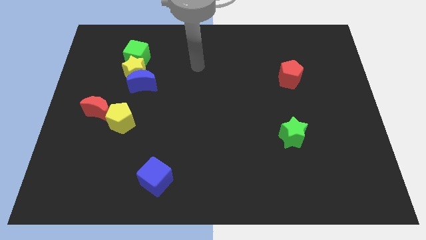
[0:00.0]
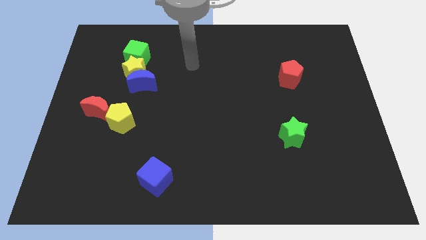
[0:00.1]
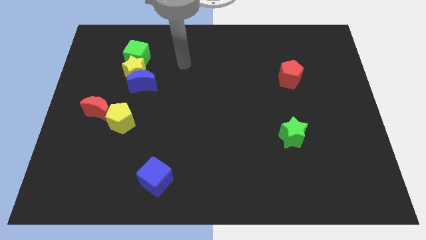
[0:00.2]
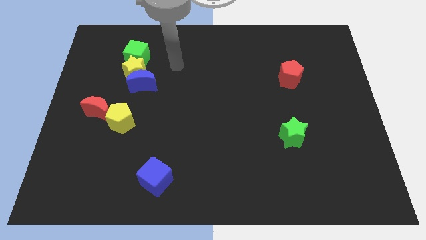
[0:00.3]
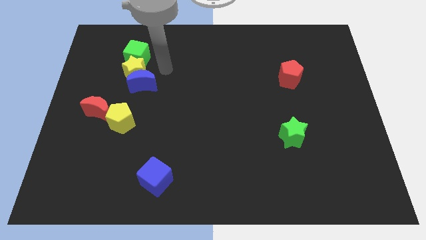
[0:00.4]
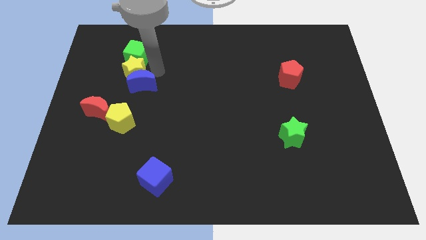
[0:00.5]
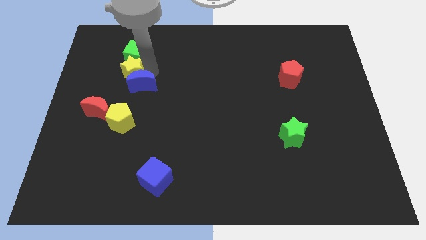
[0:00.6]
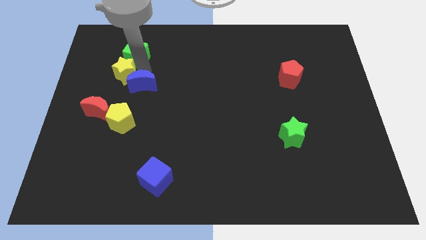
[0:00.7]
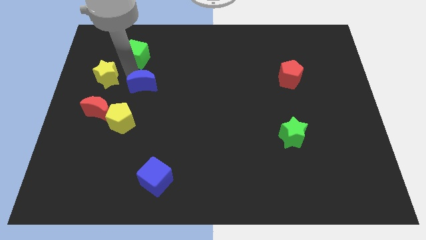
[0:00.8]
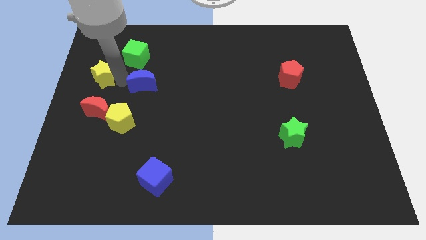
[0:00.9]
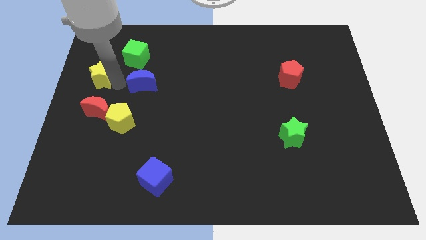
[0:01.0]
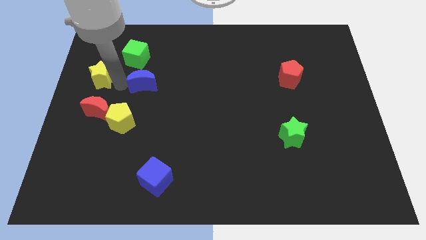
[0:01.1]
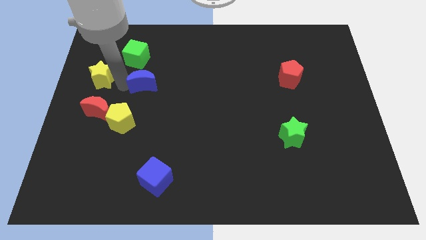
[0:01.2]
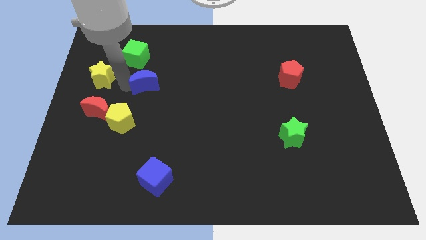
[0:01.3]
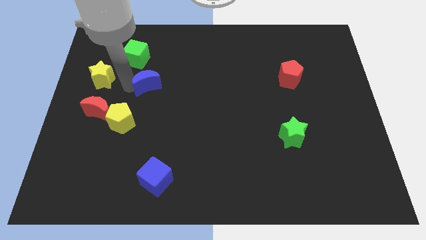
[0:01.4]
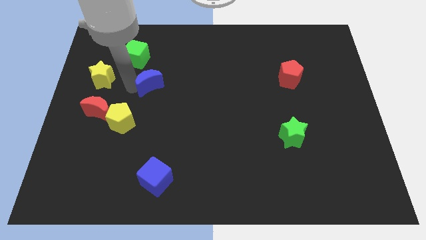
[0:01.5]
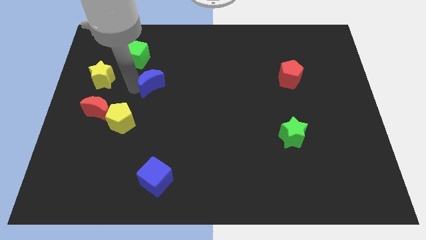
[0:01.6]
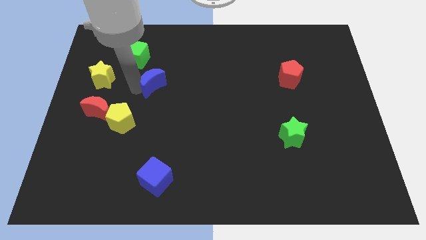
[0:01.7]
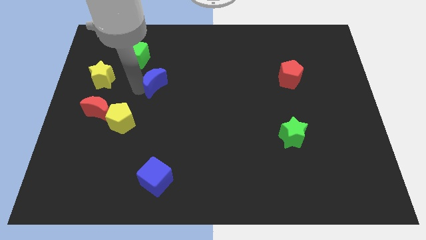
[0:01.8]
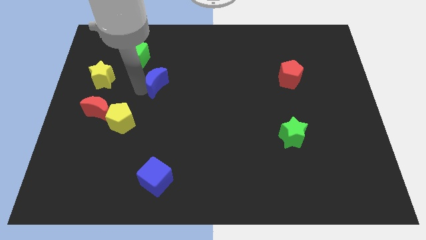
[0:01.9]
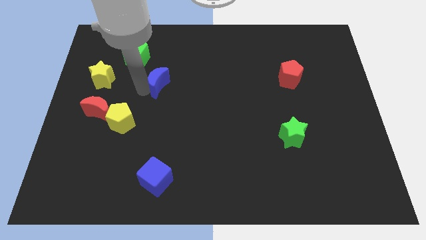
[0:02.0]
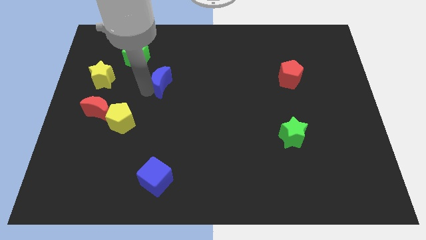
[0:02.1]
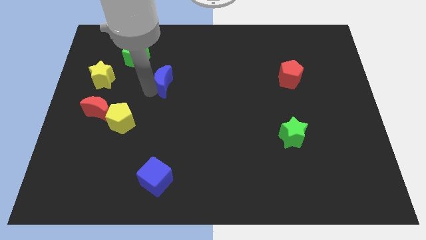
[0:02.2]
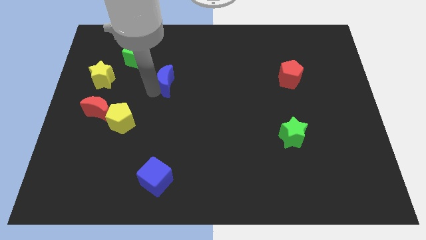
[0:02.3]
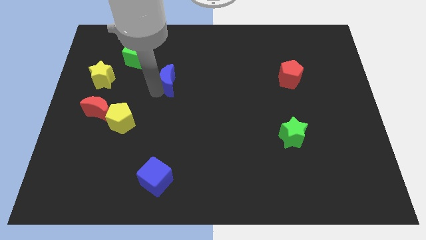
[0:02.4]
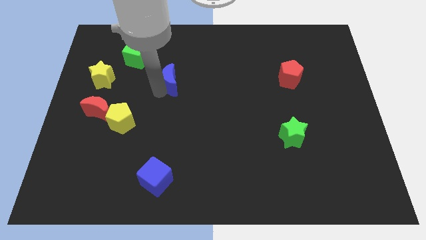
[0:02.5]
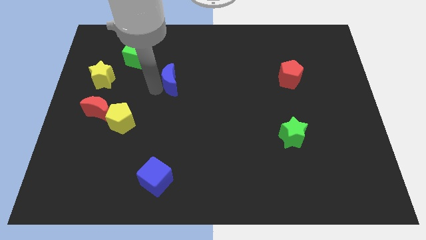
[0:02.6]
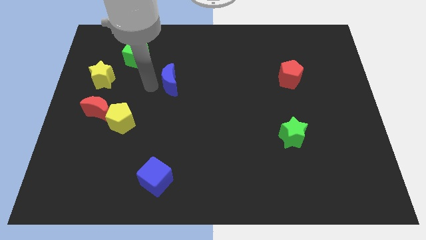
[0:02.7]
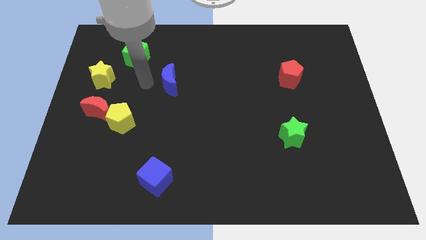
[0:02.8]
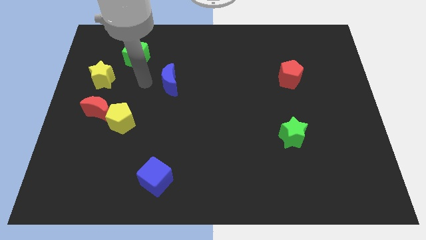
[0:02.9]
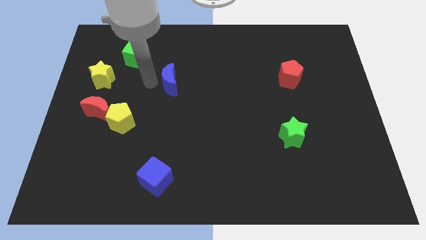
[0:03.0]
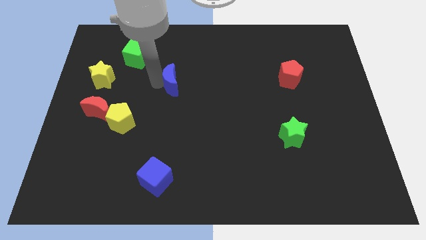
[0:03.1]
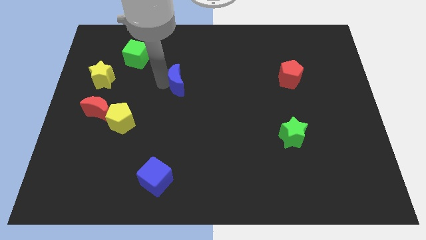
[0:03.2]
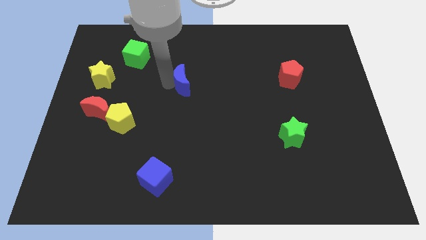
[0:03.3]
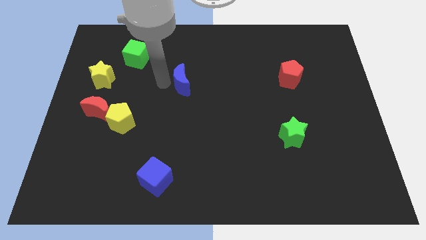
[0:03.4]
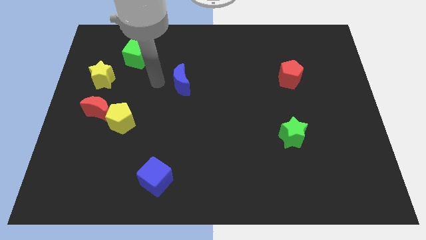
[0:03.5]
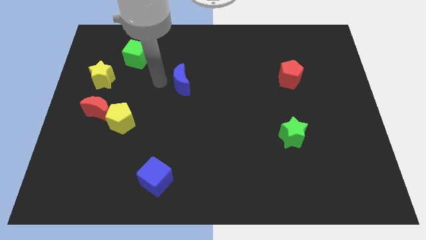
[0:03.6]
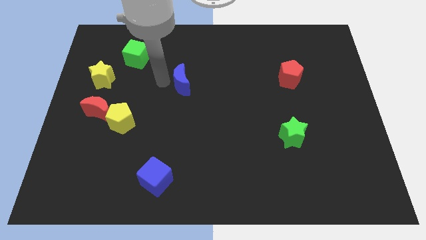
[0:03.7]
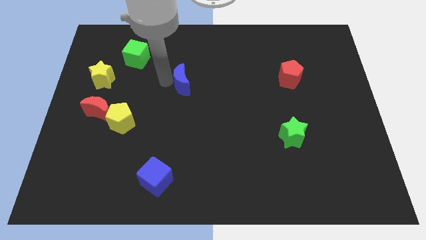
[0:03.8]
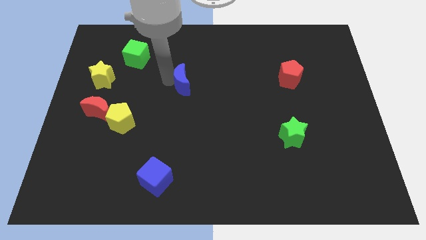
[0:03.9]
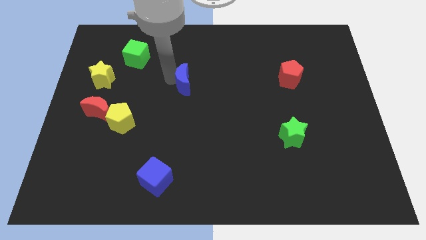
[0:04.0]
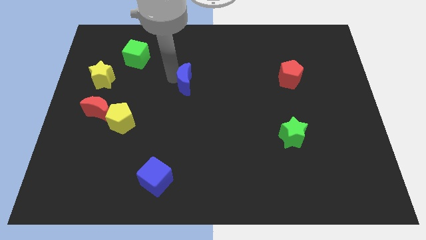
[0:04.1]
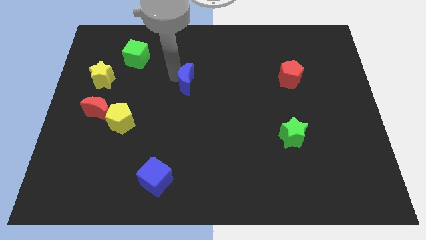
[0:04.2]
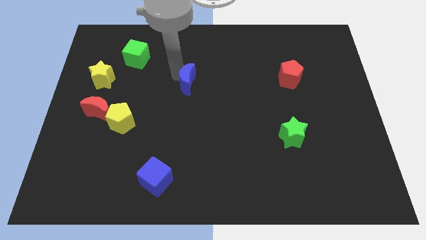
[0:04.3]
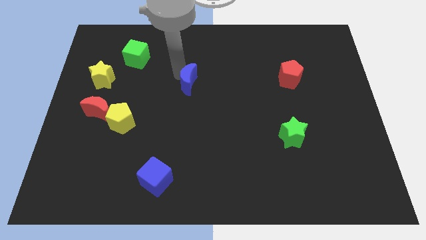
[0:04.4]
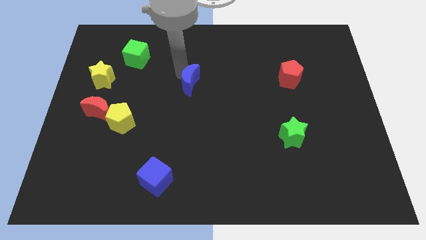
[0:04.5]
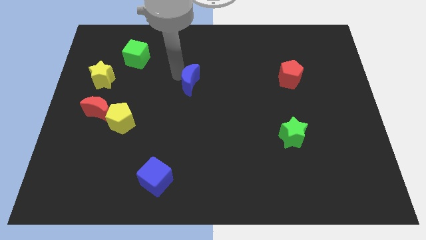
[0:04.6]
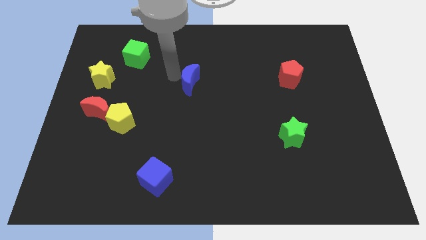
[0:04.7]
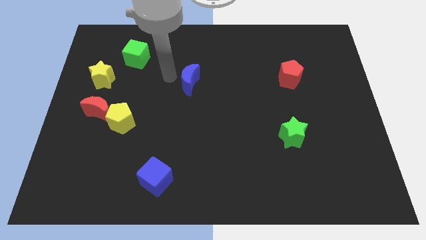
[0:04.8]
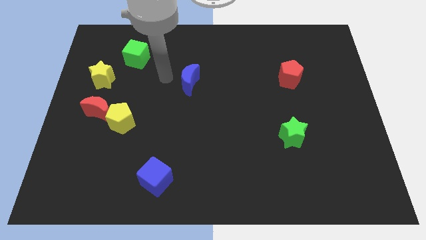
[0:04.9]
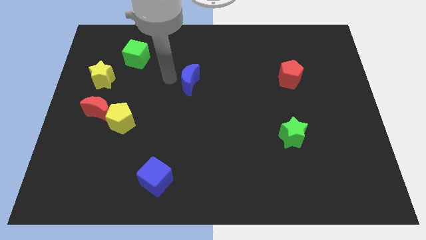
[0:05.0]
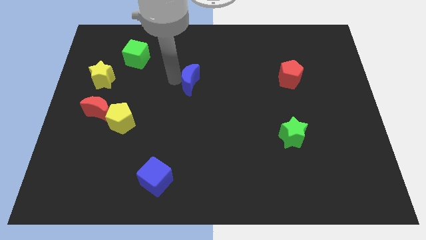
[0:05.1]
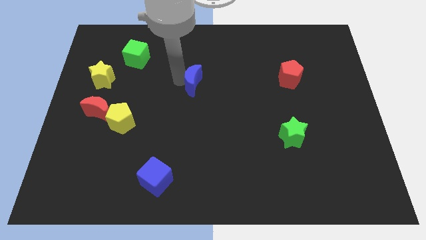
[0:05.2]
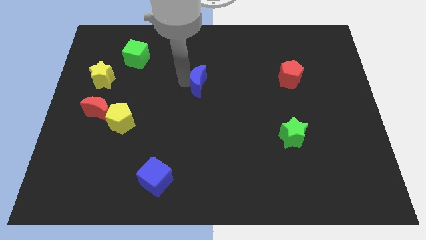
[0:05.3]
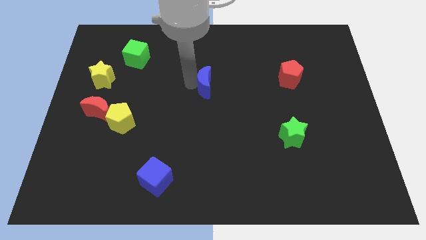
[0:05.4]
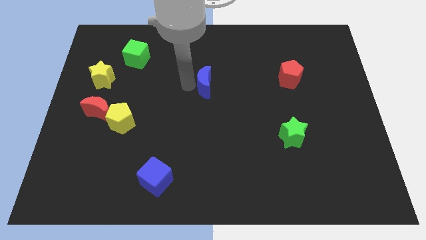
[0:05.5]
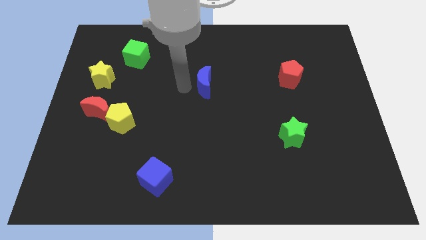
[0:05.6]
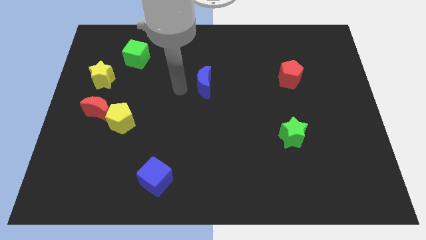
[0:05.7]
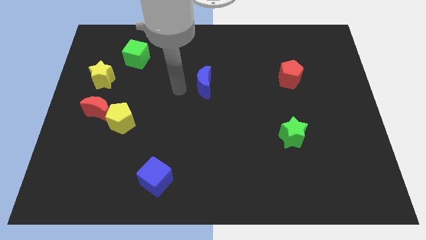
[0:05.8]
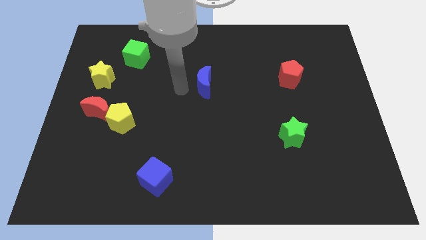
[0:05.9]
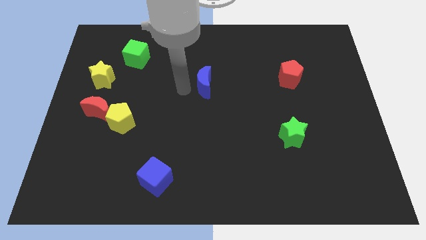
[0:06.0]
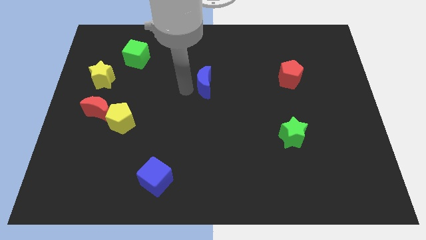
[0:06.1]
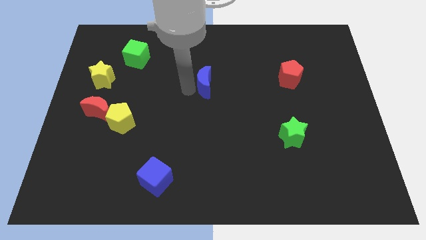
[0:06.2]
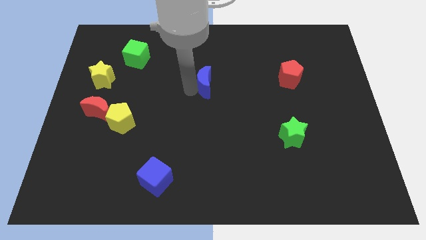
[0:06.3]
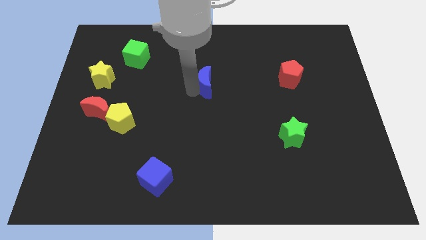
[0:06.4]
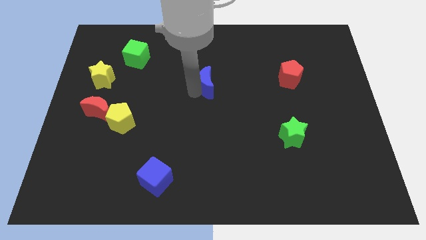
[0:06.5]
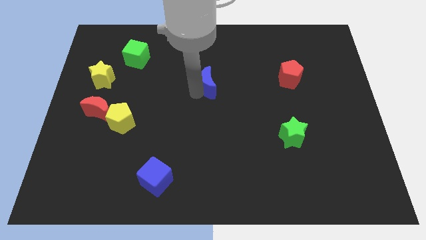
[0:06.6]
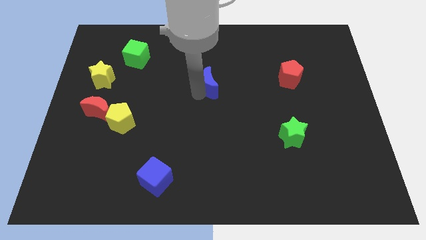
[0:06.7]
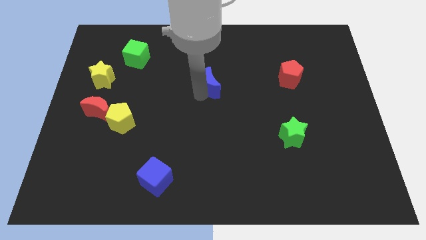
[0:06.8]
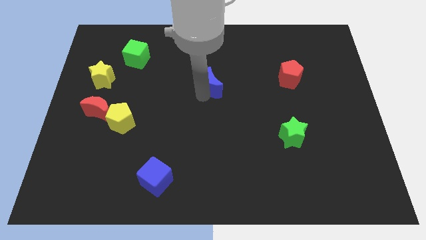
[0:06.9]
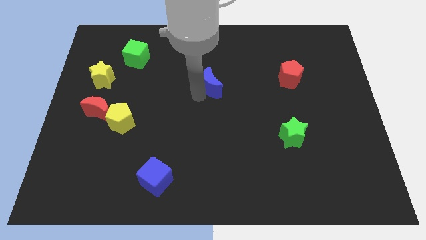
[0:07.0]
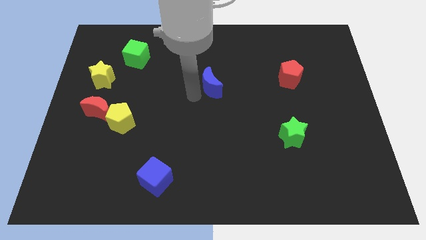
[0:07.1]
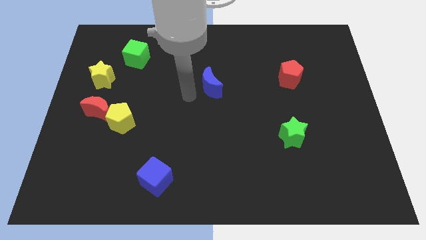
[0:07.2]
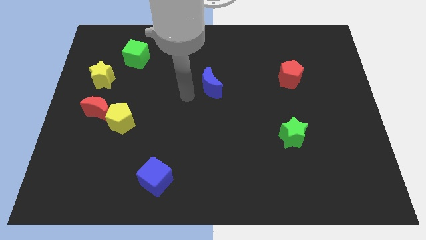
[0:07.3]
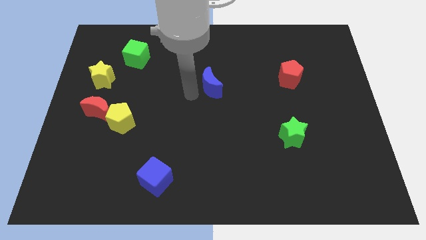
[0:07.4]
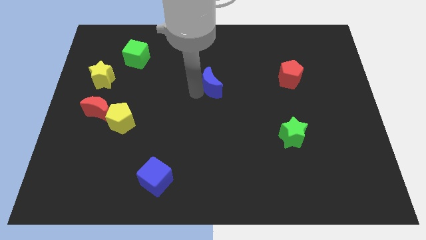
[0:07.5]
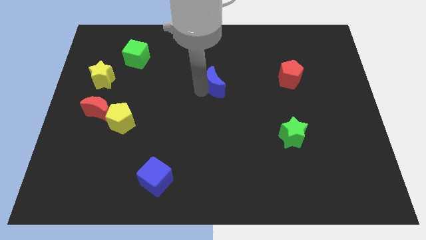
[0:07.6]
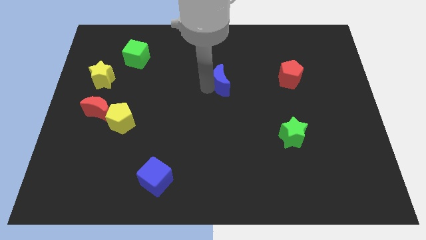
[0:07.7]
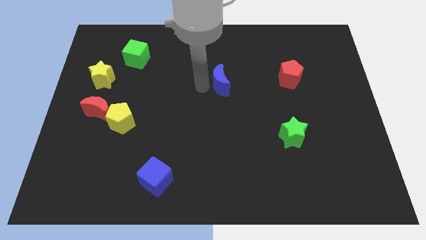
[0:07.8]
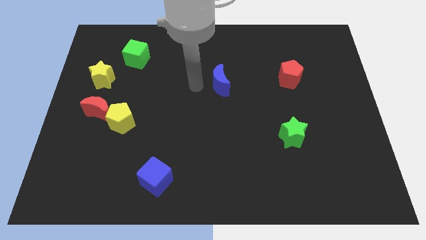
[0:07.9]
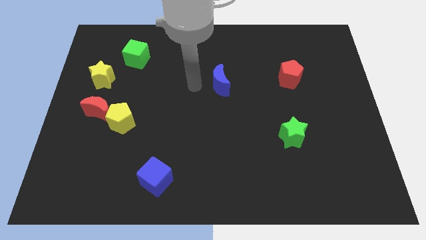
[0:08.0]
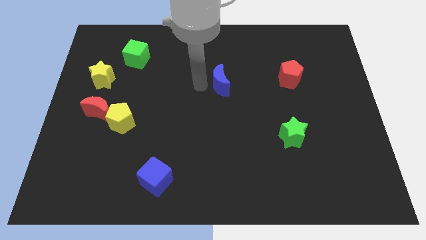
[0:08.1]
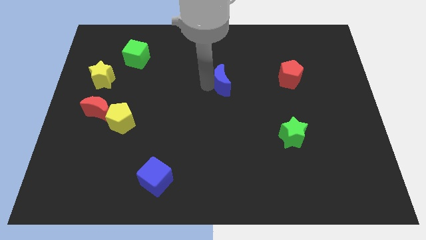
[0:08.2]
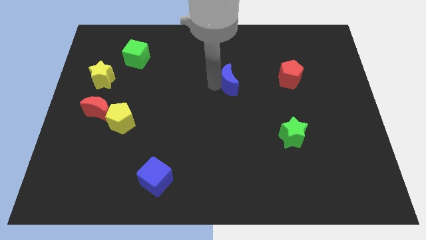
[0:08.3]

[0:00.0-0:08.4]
move the blue moon to the right
